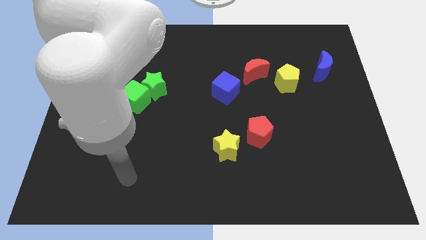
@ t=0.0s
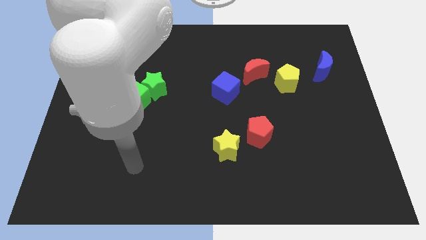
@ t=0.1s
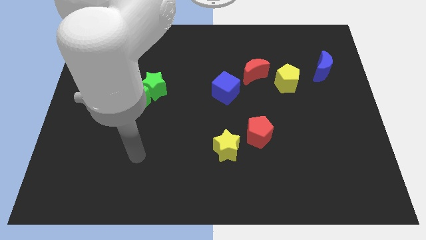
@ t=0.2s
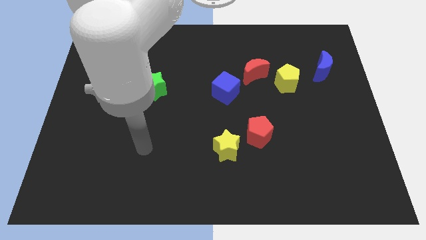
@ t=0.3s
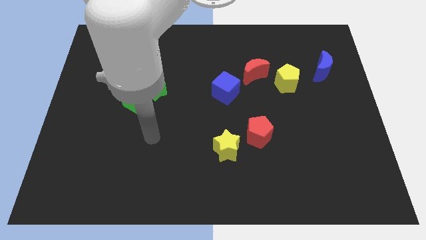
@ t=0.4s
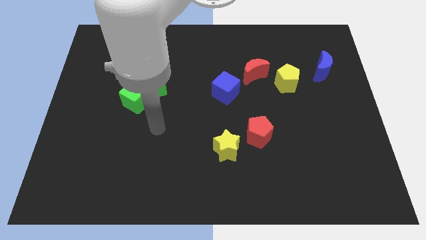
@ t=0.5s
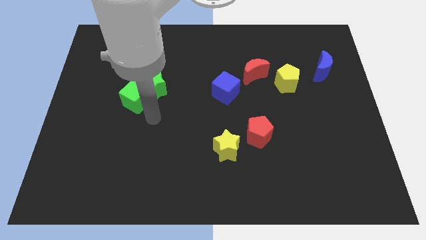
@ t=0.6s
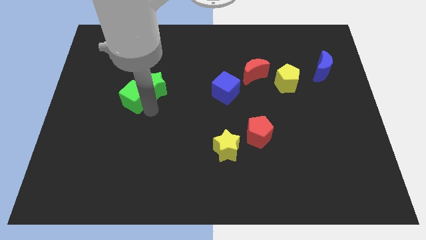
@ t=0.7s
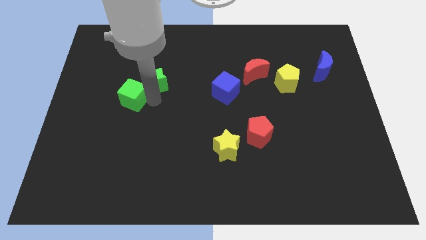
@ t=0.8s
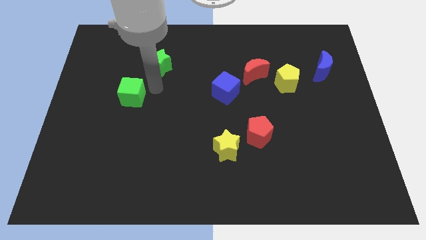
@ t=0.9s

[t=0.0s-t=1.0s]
move the green cube away from the green star

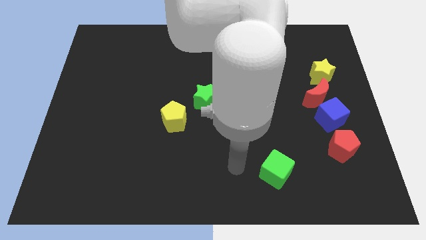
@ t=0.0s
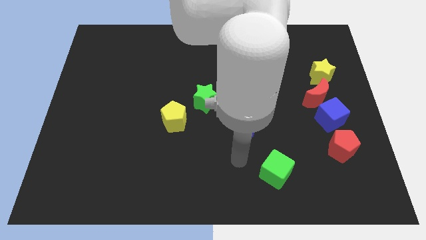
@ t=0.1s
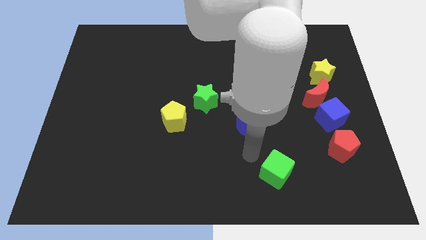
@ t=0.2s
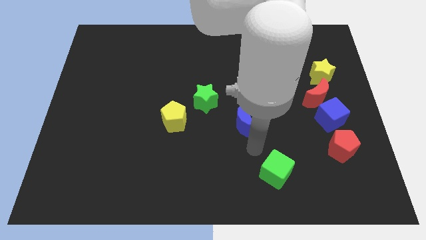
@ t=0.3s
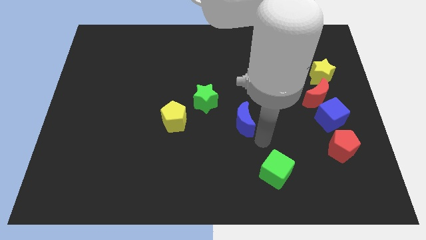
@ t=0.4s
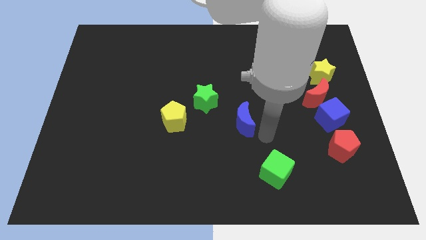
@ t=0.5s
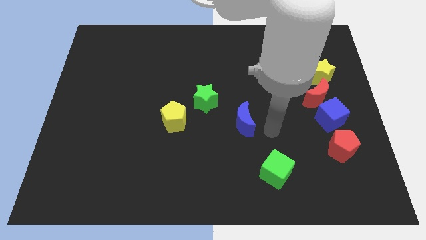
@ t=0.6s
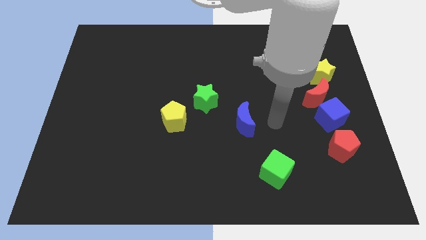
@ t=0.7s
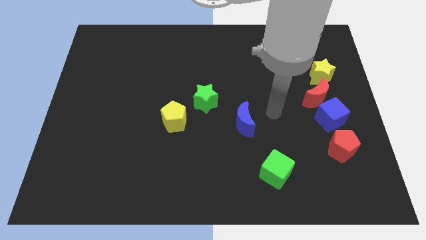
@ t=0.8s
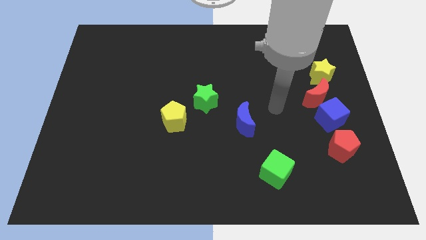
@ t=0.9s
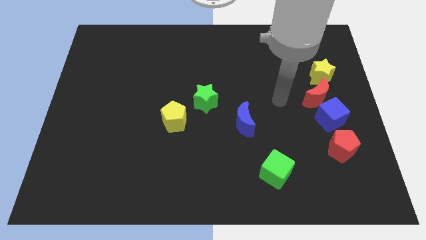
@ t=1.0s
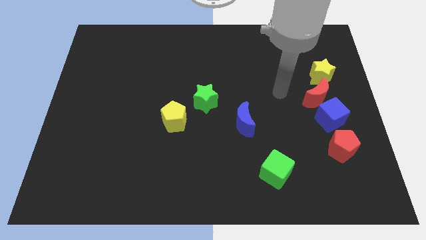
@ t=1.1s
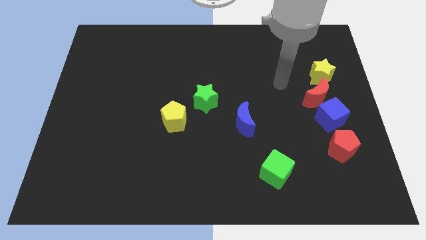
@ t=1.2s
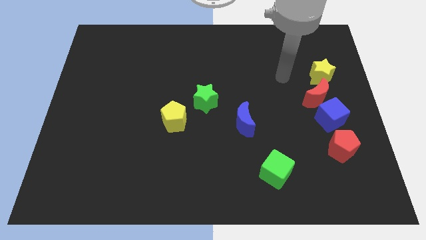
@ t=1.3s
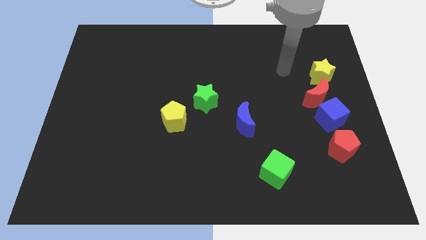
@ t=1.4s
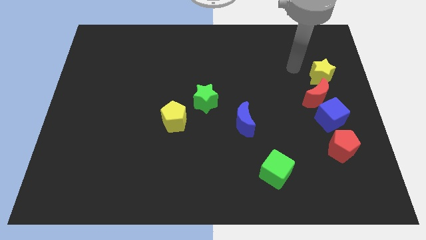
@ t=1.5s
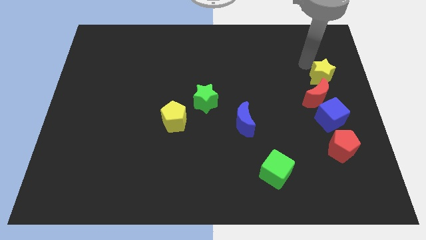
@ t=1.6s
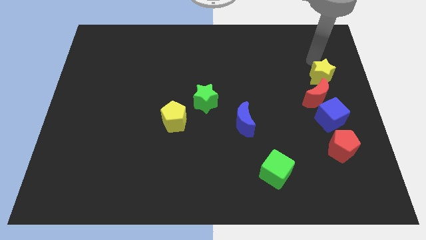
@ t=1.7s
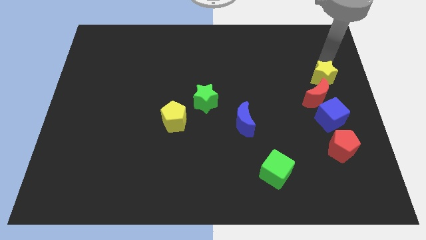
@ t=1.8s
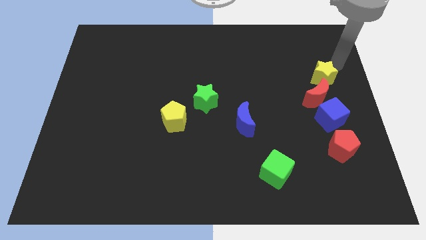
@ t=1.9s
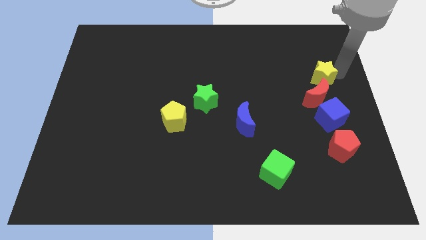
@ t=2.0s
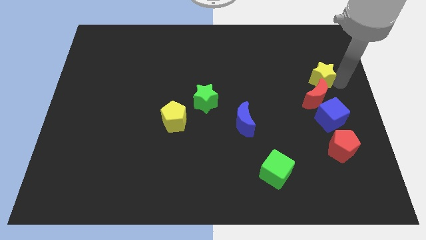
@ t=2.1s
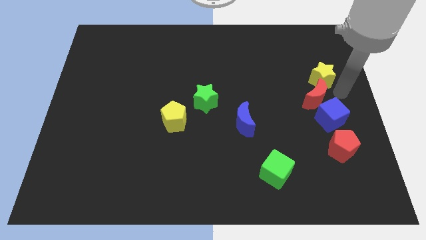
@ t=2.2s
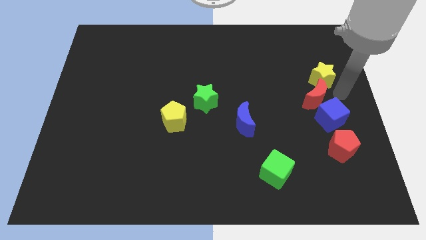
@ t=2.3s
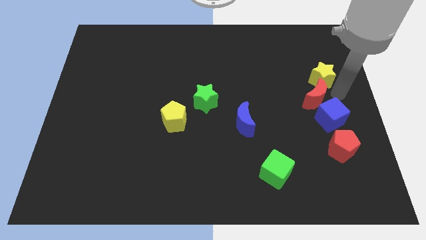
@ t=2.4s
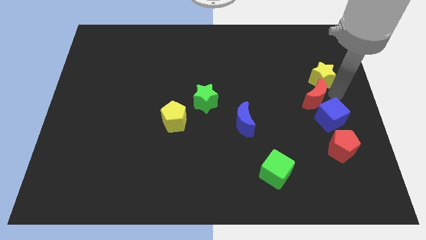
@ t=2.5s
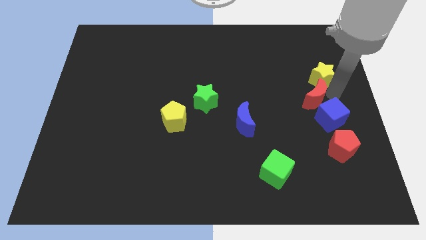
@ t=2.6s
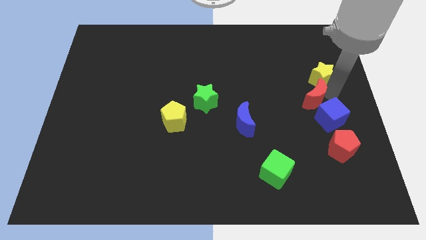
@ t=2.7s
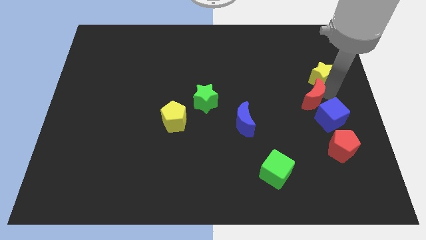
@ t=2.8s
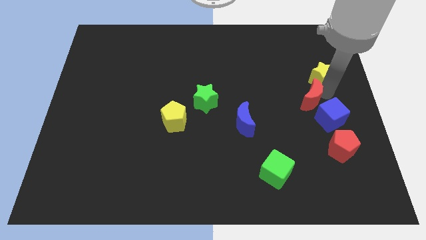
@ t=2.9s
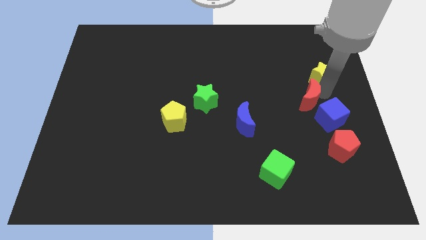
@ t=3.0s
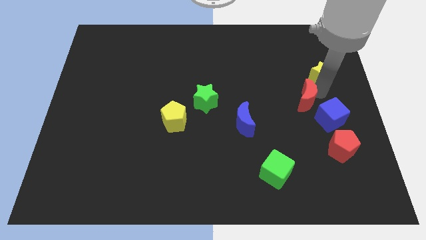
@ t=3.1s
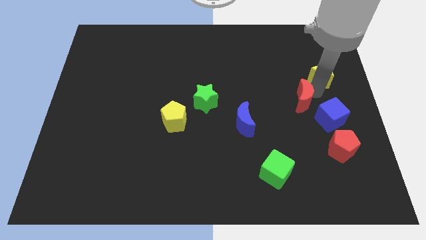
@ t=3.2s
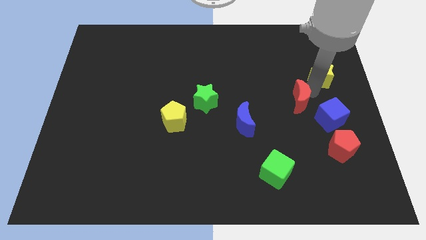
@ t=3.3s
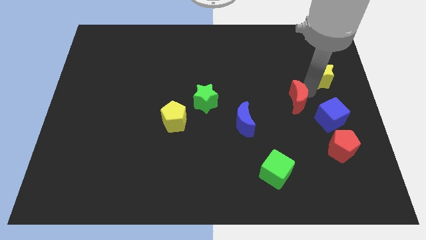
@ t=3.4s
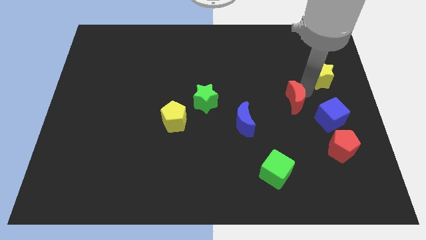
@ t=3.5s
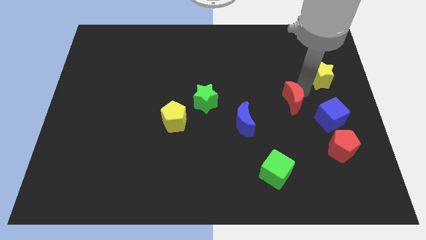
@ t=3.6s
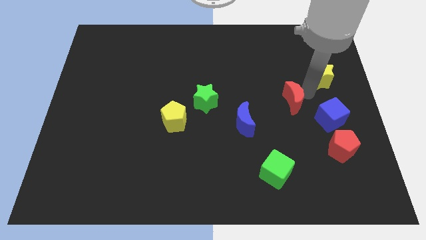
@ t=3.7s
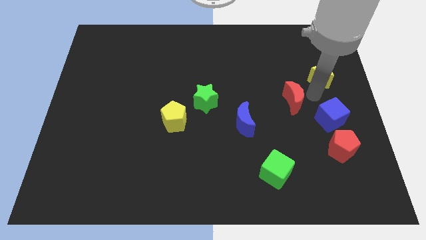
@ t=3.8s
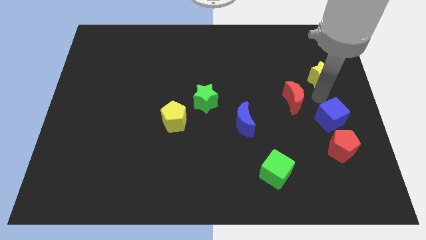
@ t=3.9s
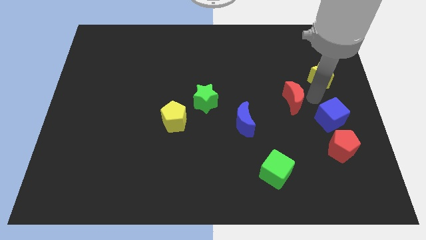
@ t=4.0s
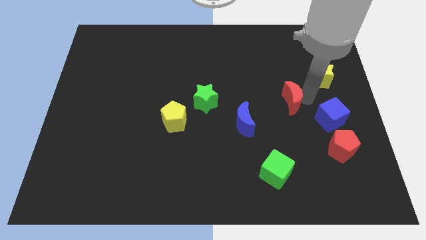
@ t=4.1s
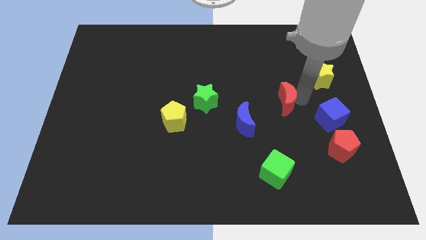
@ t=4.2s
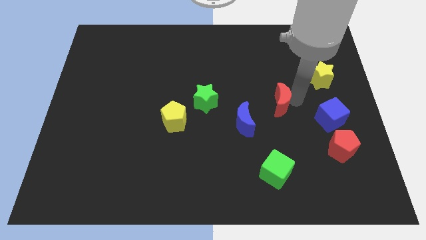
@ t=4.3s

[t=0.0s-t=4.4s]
pull the red moon apart from the blue cube and yellow star

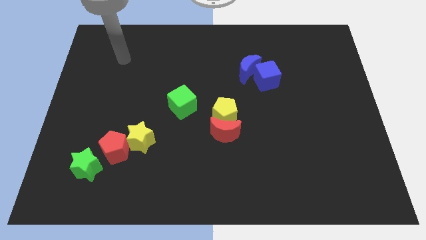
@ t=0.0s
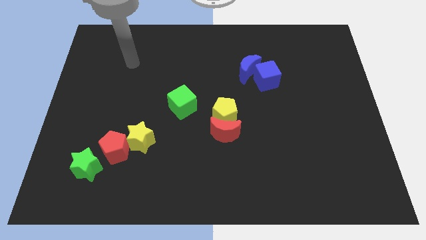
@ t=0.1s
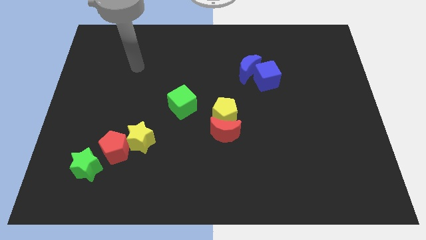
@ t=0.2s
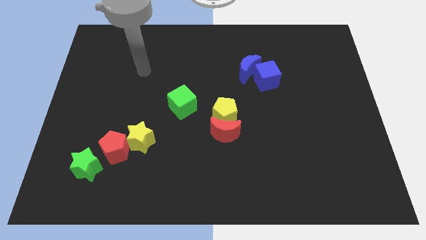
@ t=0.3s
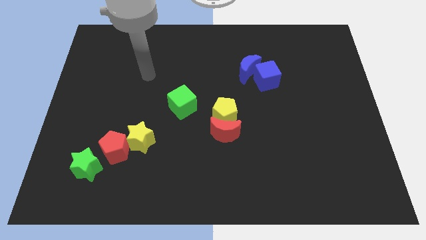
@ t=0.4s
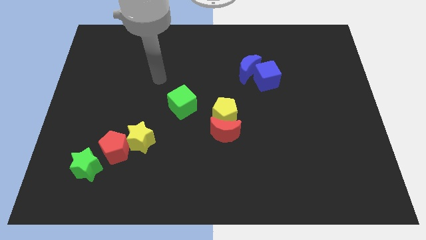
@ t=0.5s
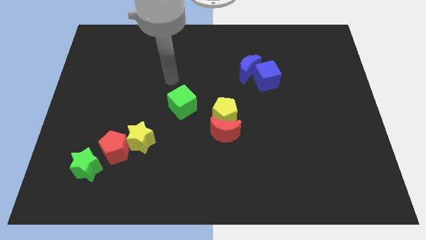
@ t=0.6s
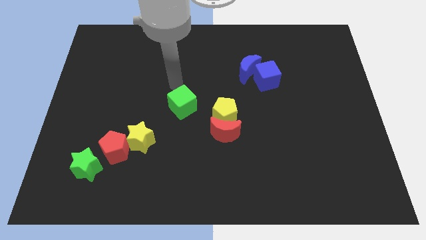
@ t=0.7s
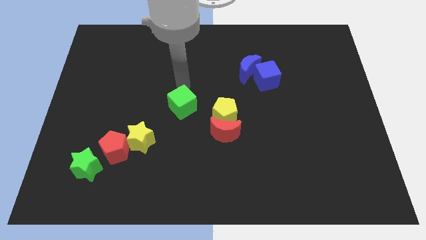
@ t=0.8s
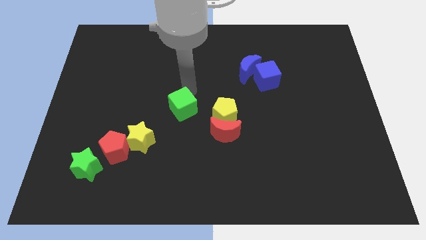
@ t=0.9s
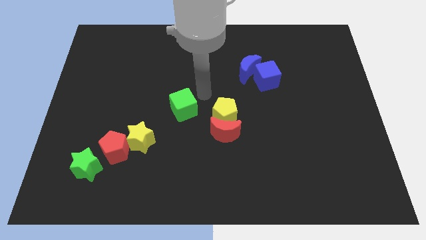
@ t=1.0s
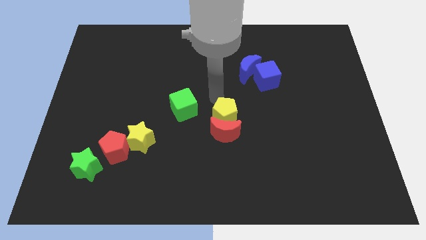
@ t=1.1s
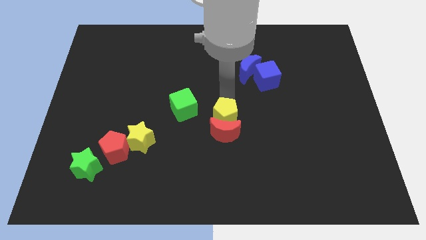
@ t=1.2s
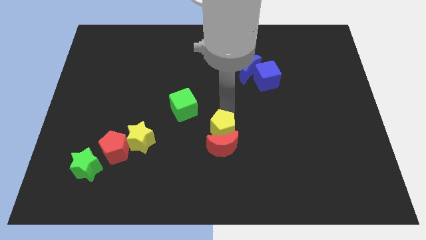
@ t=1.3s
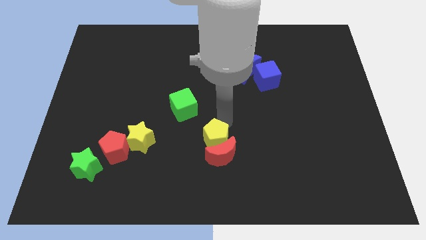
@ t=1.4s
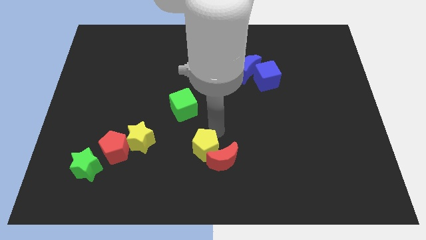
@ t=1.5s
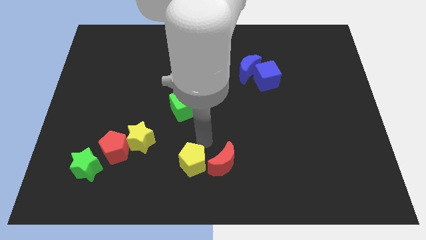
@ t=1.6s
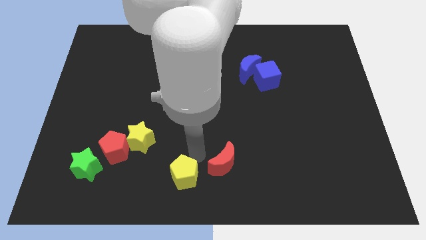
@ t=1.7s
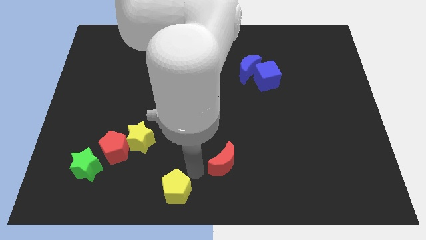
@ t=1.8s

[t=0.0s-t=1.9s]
separate the red moon from the yellow pentagon

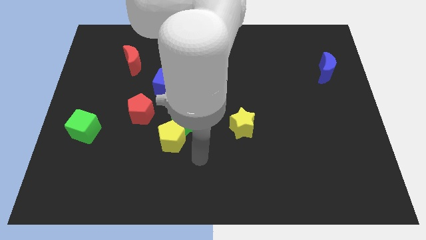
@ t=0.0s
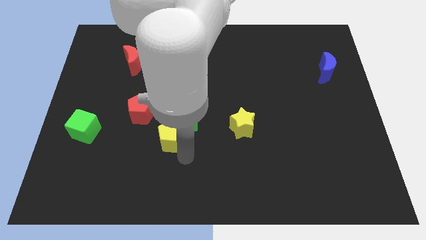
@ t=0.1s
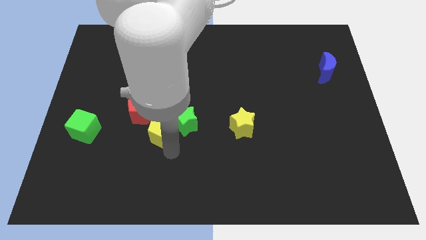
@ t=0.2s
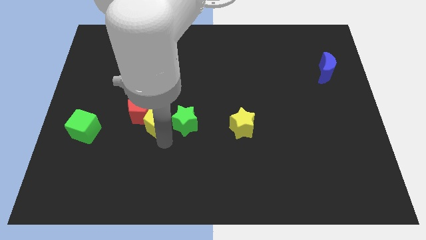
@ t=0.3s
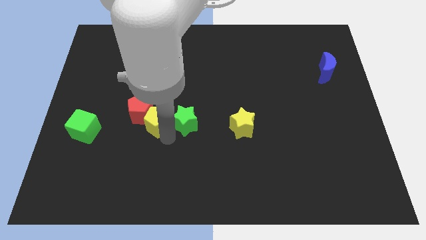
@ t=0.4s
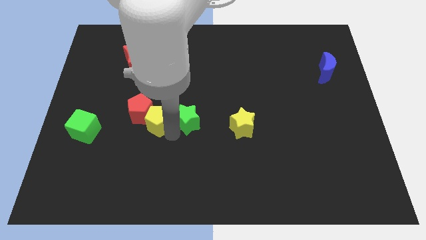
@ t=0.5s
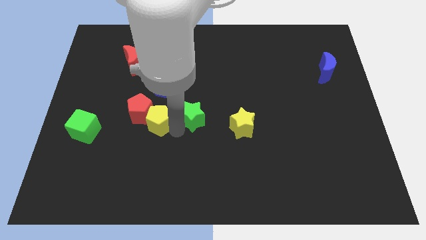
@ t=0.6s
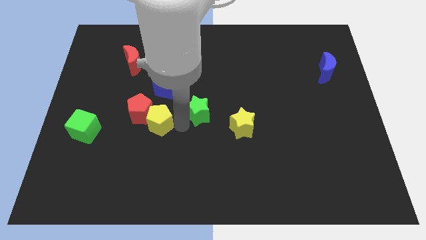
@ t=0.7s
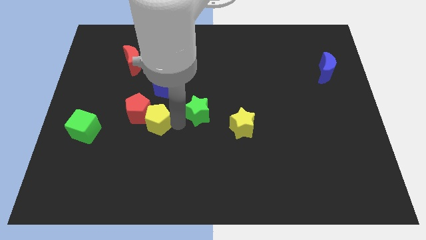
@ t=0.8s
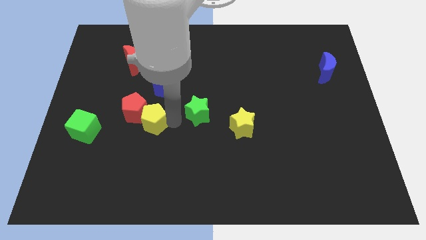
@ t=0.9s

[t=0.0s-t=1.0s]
pull the green star apart from the yellow pentagon

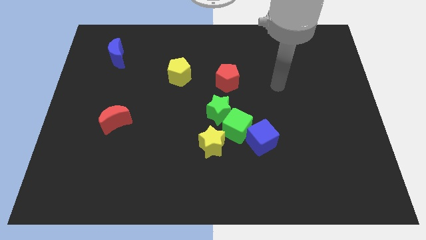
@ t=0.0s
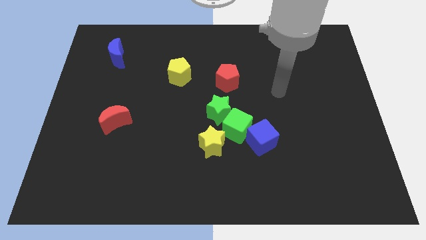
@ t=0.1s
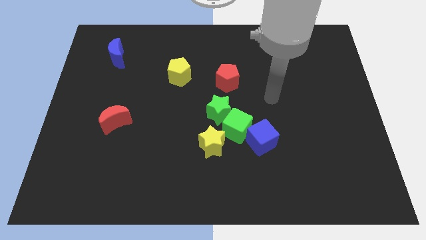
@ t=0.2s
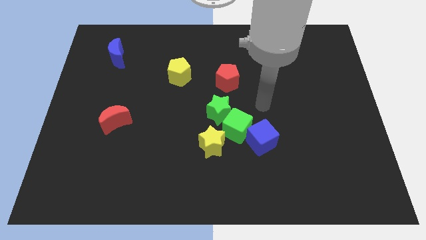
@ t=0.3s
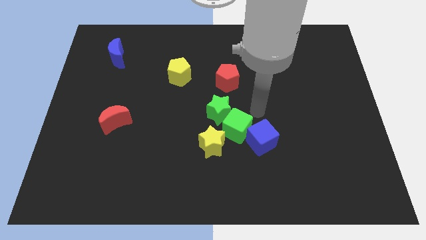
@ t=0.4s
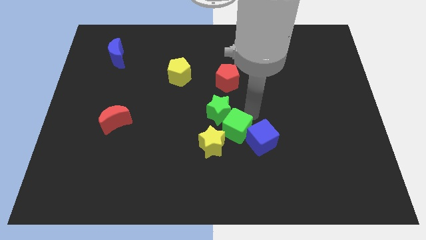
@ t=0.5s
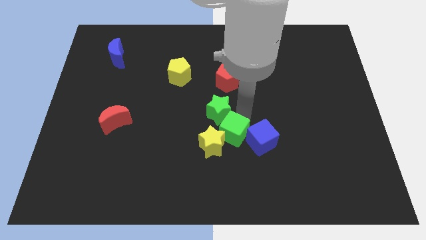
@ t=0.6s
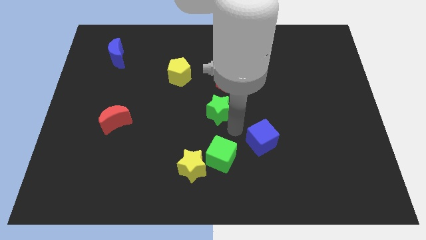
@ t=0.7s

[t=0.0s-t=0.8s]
separate the blue cube from the green cube
